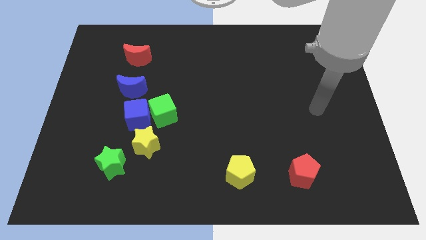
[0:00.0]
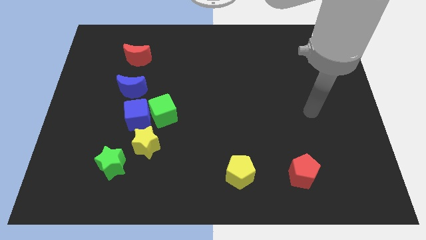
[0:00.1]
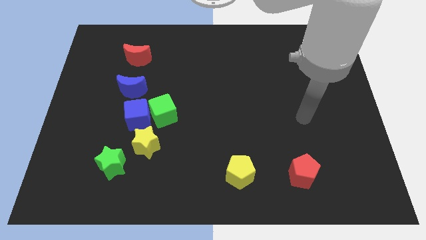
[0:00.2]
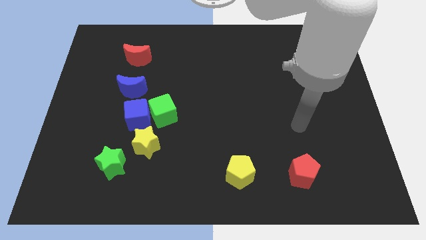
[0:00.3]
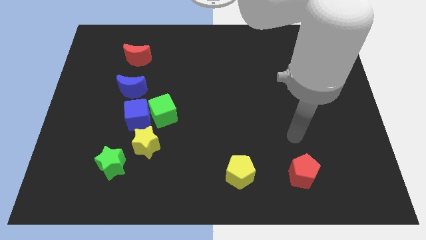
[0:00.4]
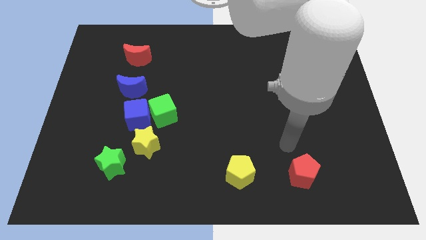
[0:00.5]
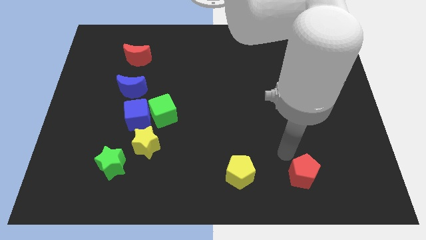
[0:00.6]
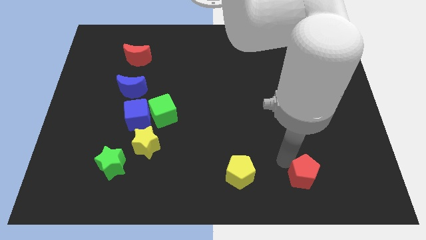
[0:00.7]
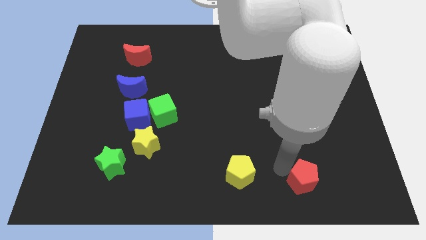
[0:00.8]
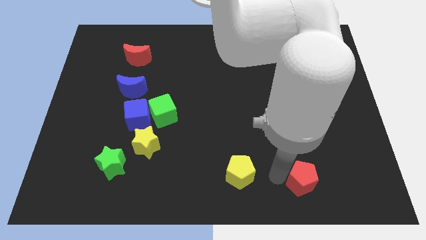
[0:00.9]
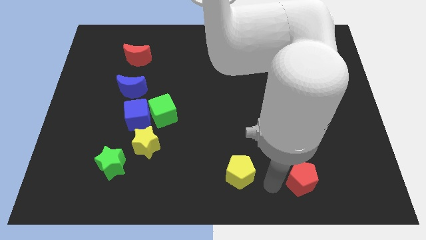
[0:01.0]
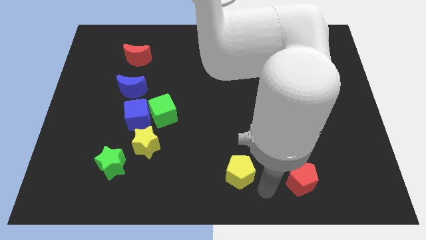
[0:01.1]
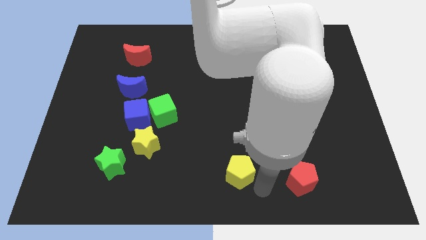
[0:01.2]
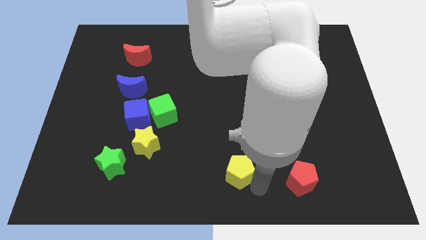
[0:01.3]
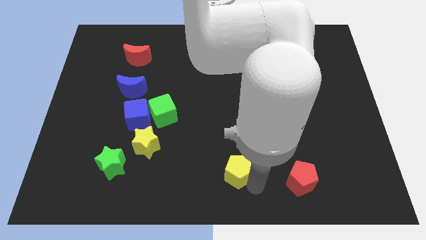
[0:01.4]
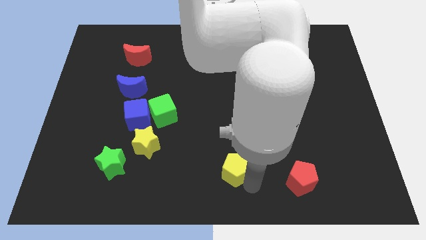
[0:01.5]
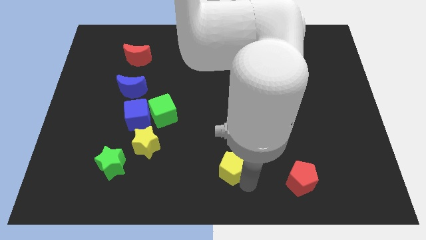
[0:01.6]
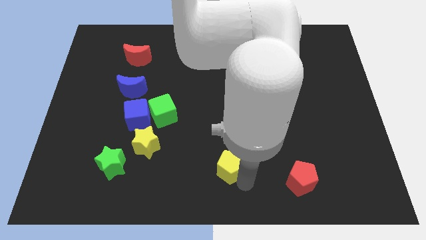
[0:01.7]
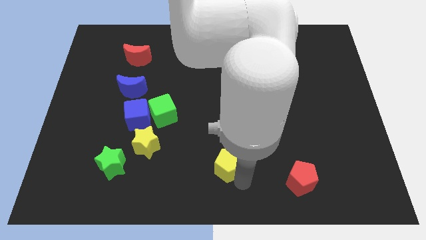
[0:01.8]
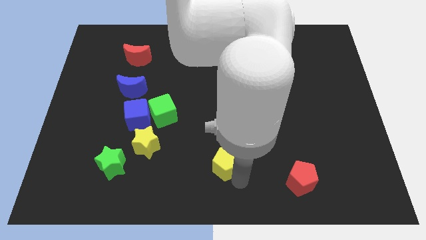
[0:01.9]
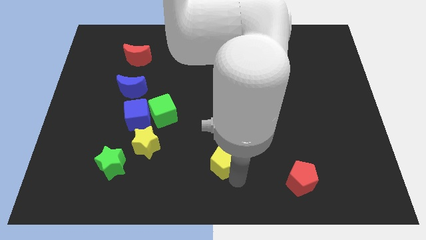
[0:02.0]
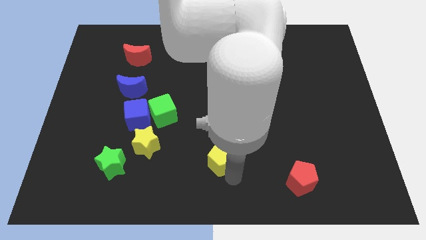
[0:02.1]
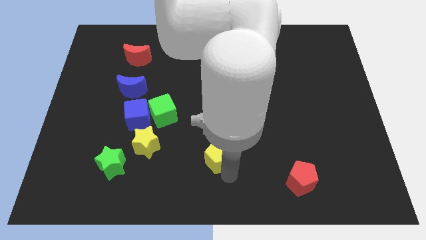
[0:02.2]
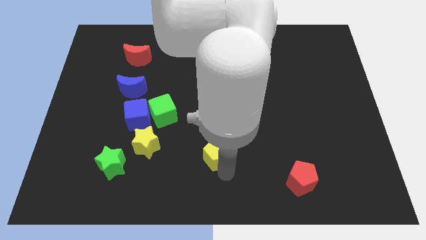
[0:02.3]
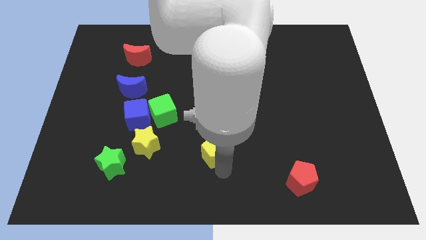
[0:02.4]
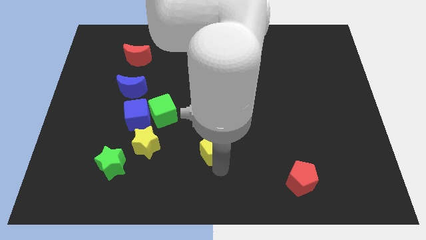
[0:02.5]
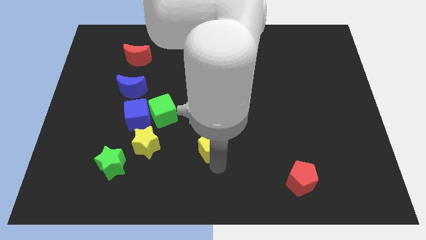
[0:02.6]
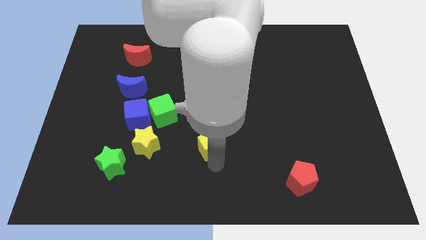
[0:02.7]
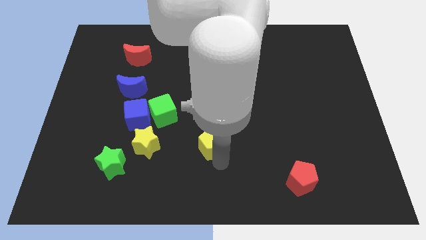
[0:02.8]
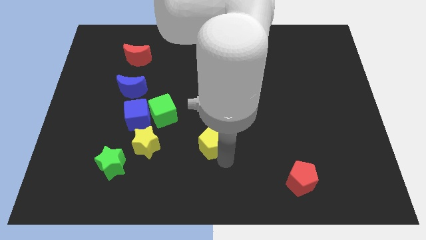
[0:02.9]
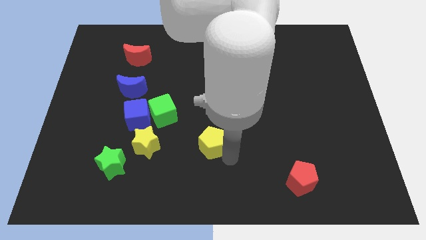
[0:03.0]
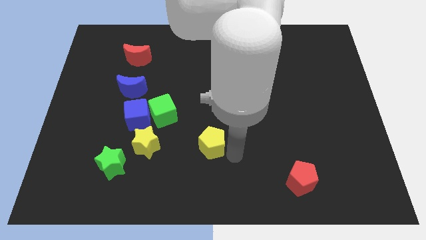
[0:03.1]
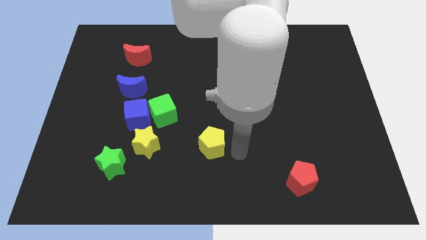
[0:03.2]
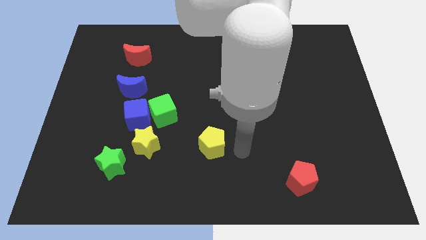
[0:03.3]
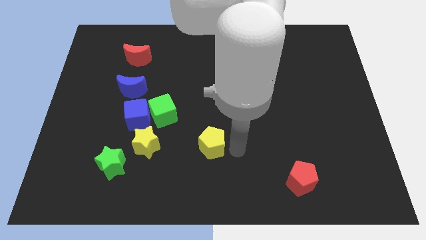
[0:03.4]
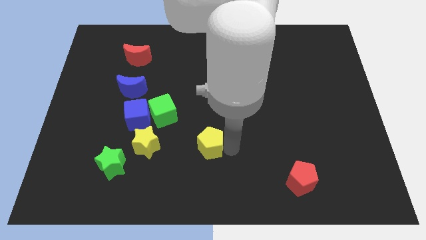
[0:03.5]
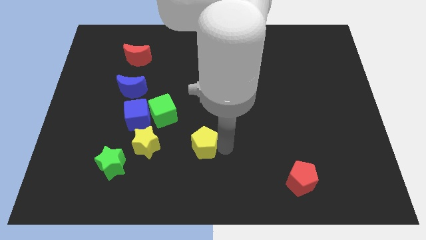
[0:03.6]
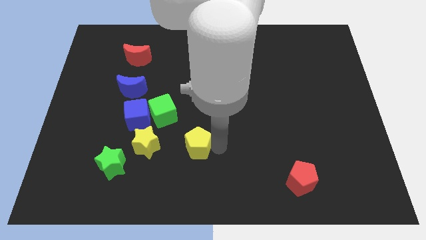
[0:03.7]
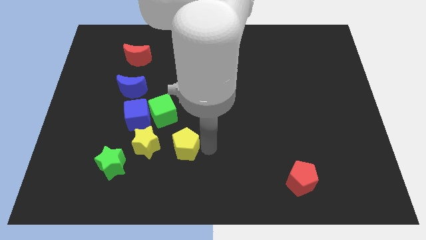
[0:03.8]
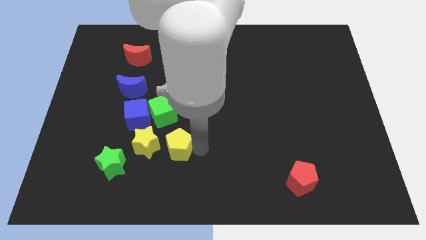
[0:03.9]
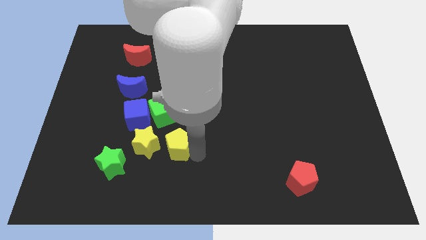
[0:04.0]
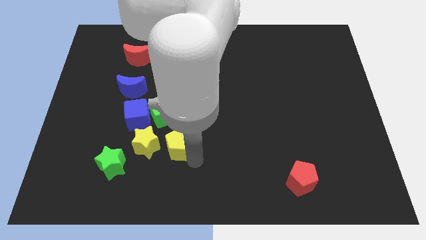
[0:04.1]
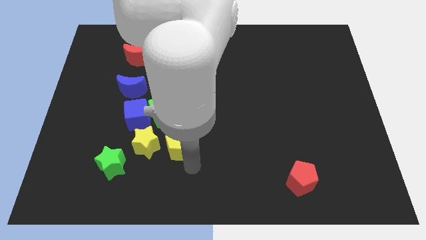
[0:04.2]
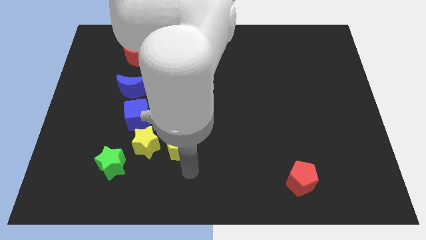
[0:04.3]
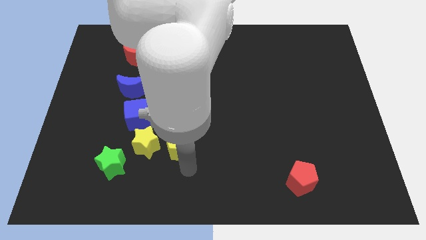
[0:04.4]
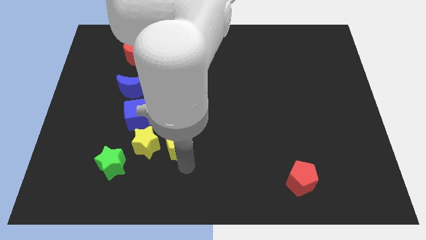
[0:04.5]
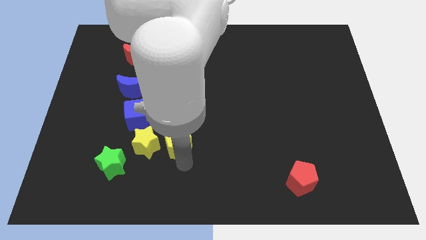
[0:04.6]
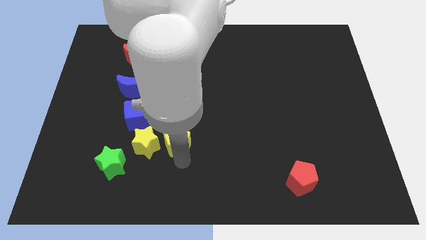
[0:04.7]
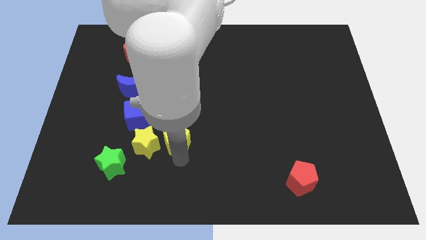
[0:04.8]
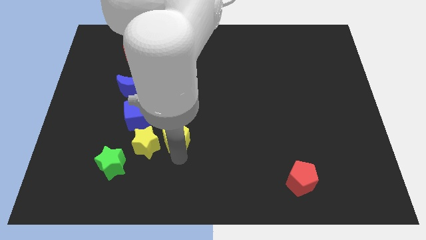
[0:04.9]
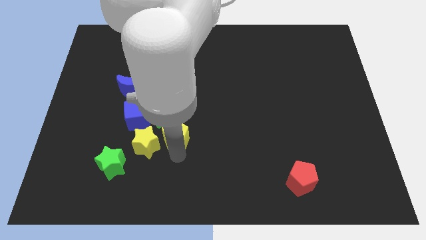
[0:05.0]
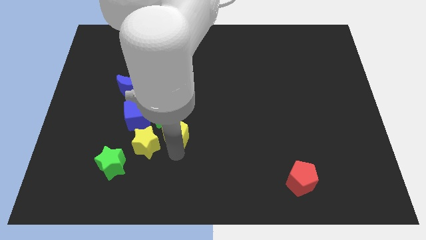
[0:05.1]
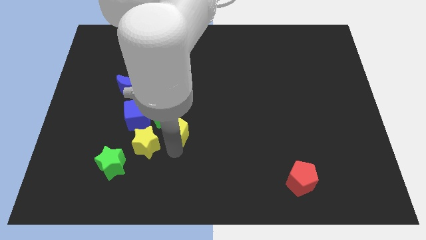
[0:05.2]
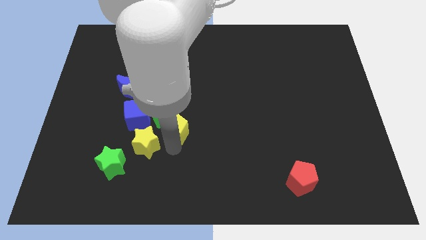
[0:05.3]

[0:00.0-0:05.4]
move the yellow pentagon next to the green cube

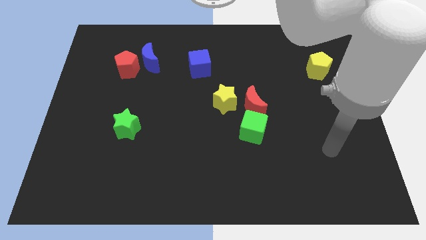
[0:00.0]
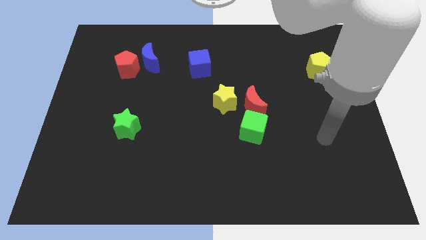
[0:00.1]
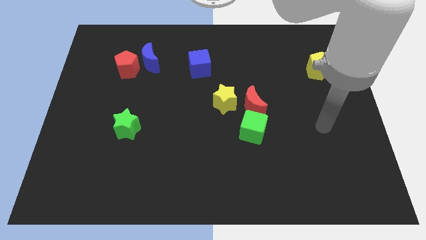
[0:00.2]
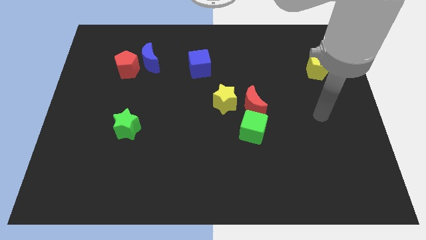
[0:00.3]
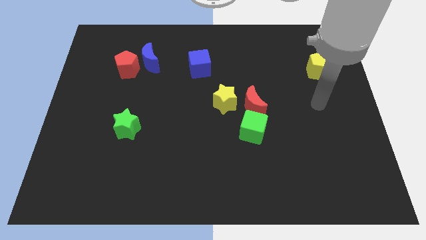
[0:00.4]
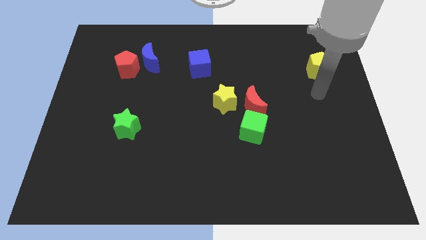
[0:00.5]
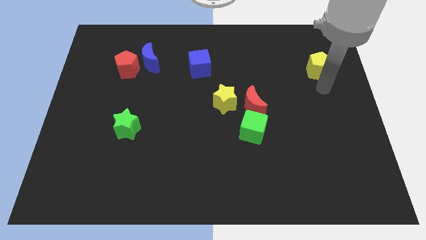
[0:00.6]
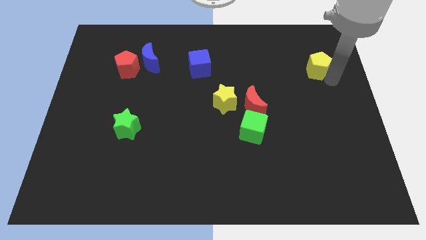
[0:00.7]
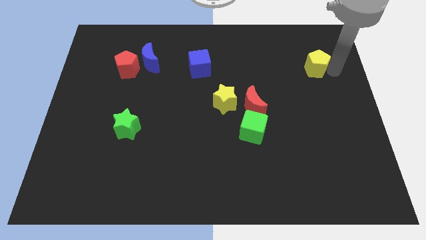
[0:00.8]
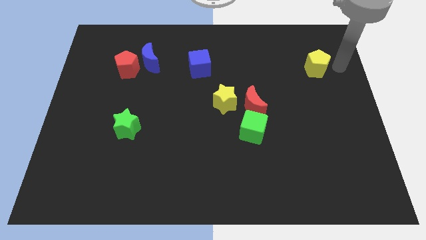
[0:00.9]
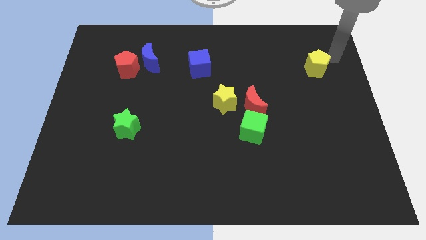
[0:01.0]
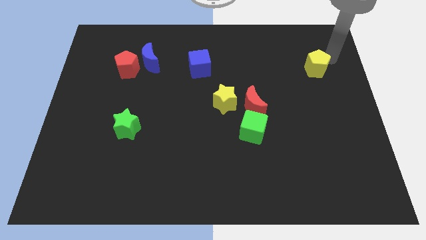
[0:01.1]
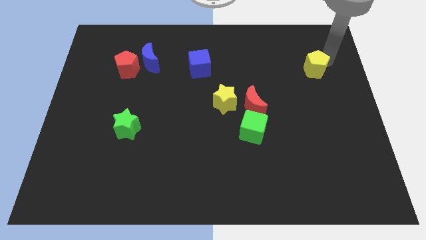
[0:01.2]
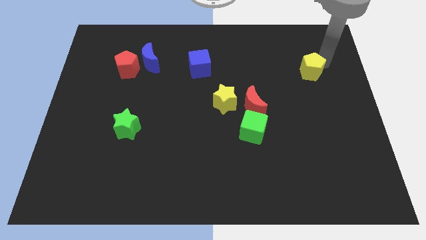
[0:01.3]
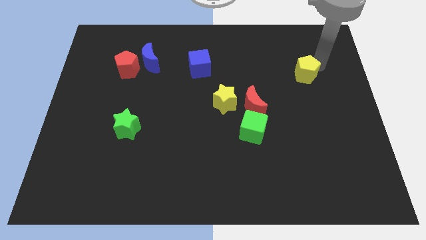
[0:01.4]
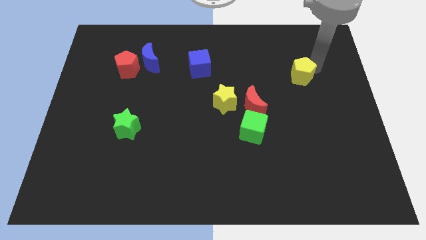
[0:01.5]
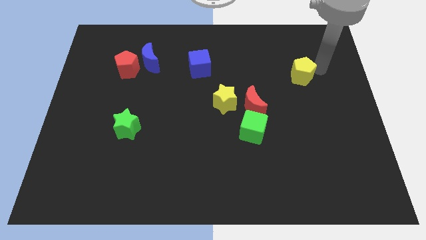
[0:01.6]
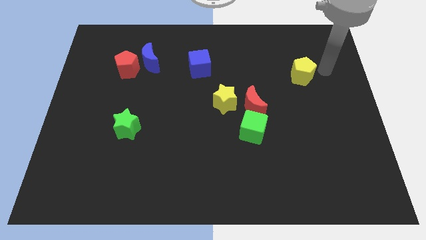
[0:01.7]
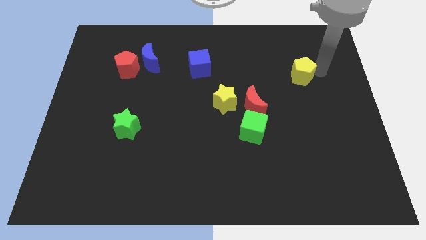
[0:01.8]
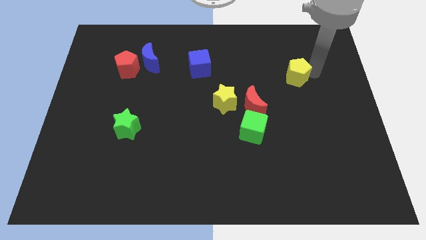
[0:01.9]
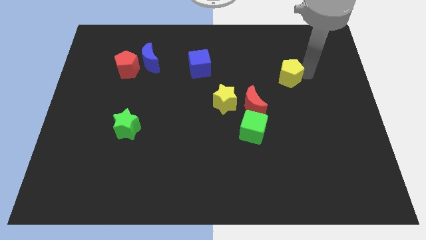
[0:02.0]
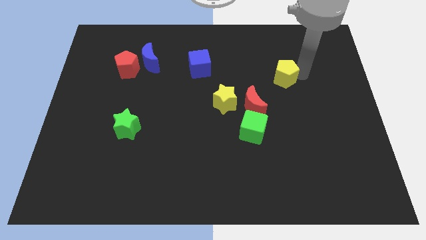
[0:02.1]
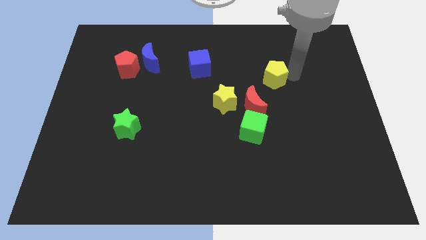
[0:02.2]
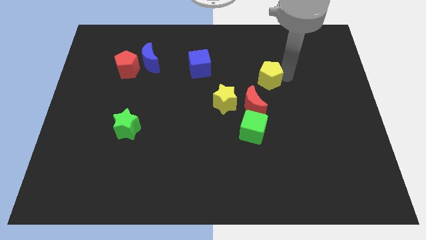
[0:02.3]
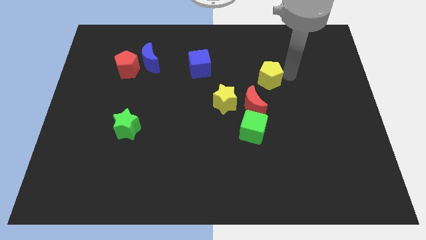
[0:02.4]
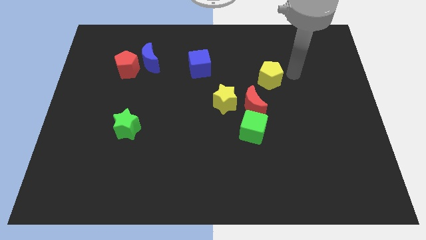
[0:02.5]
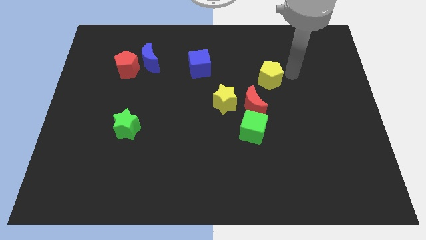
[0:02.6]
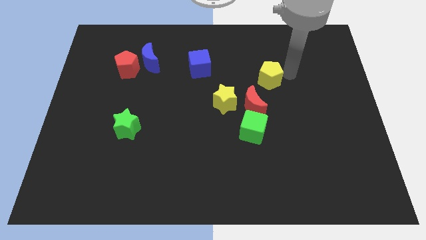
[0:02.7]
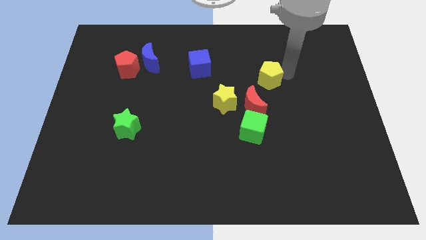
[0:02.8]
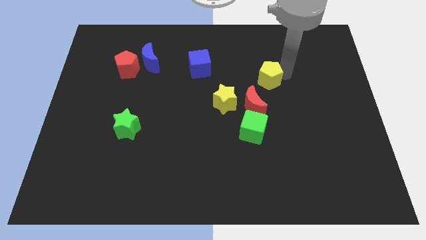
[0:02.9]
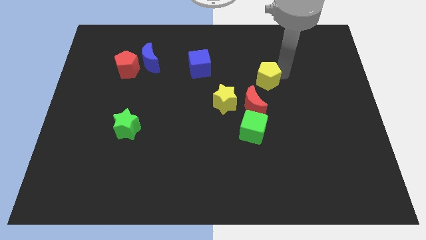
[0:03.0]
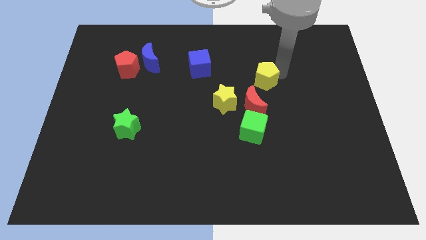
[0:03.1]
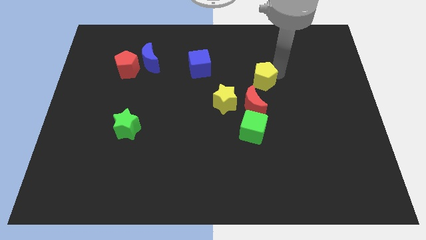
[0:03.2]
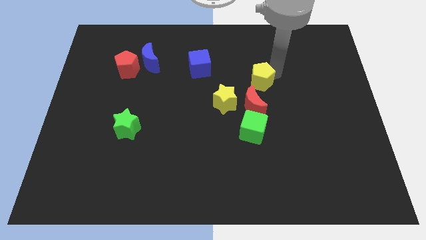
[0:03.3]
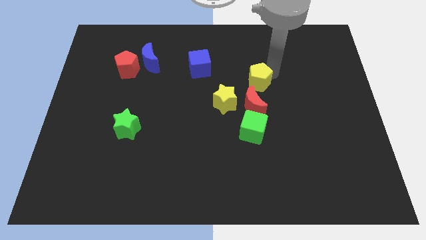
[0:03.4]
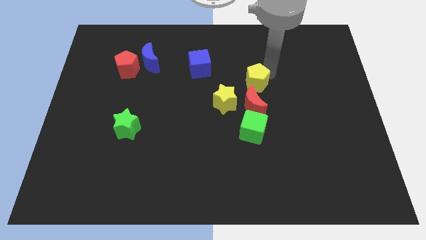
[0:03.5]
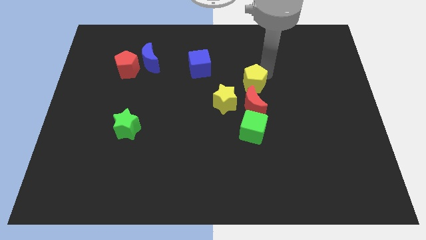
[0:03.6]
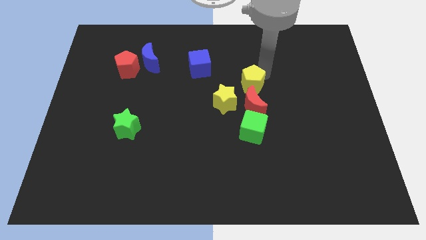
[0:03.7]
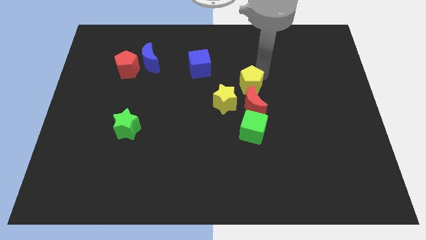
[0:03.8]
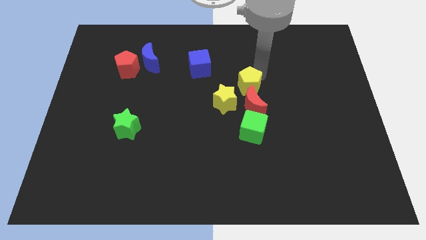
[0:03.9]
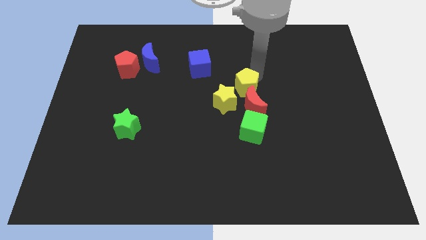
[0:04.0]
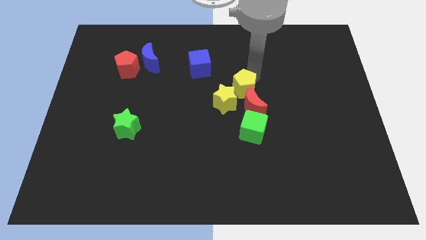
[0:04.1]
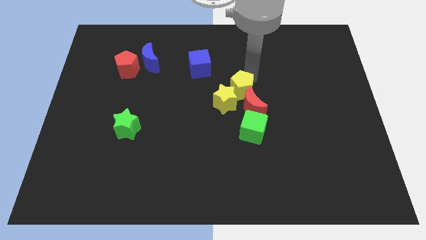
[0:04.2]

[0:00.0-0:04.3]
push the yellow pentagon next to the yellow star
